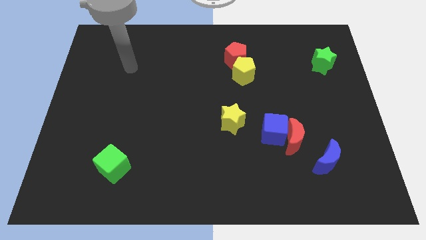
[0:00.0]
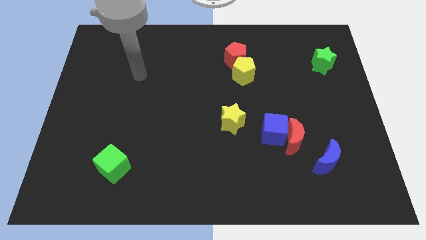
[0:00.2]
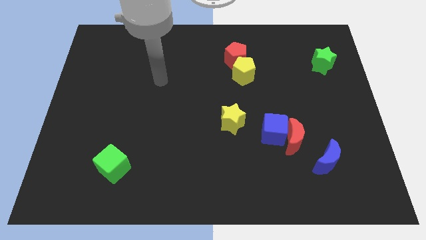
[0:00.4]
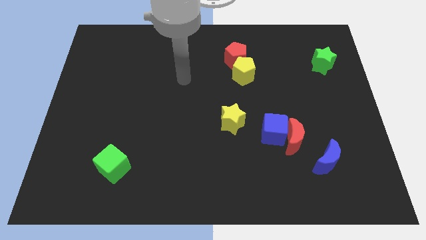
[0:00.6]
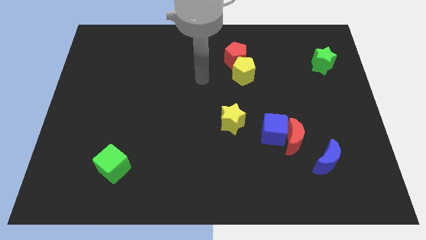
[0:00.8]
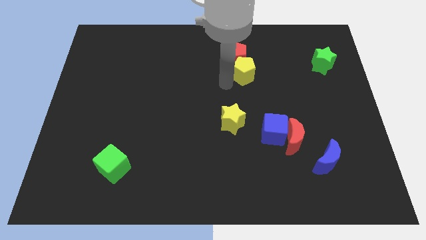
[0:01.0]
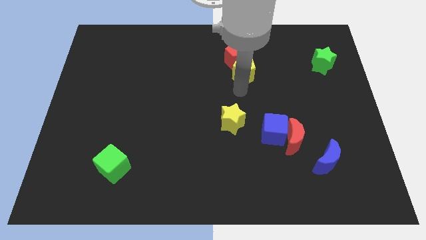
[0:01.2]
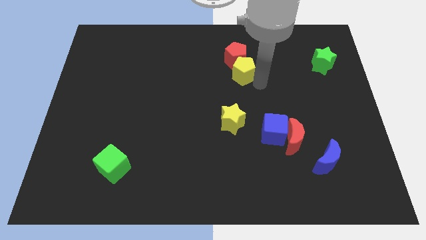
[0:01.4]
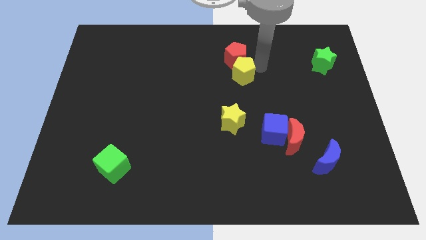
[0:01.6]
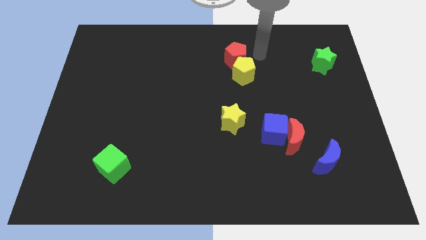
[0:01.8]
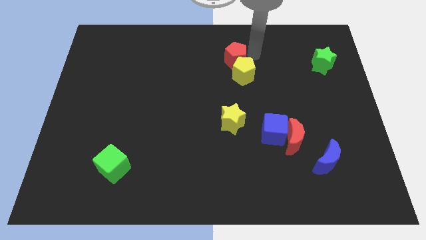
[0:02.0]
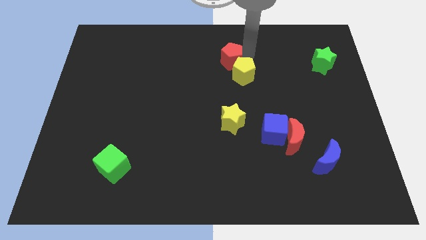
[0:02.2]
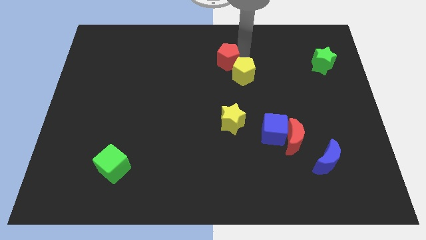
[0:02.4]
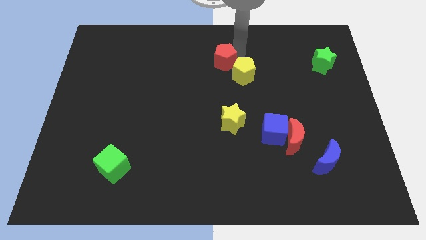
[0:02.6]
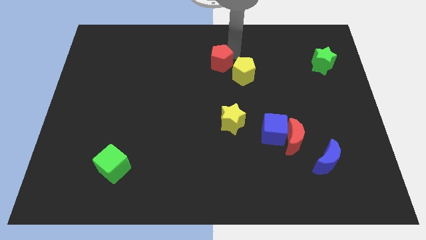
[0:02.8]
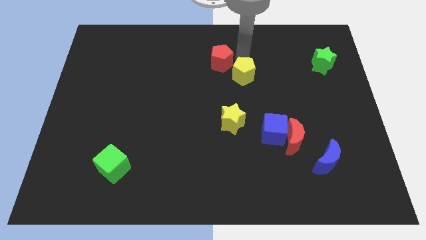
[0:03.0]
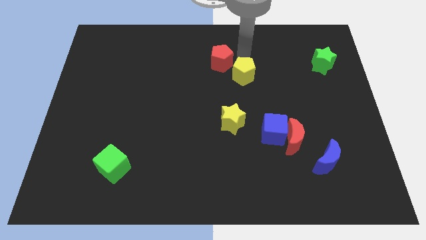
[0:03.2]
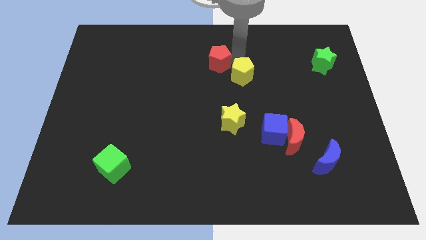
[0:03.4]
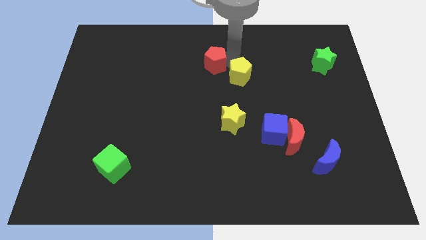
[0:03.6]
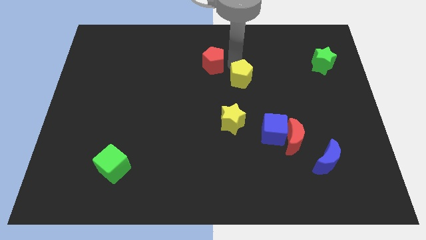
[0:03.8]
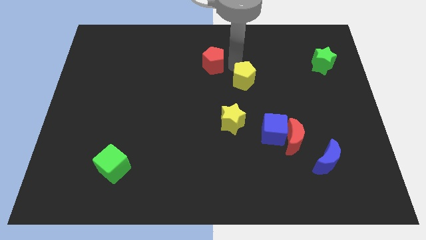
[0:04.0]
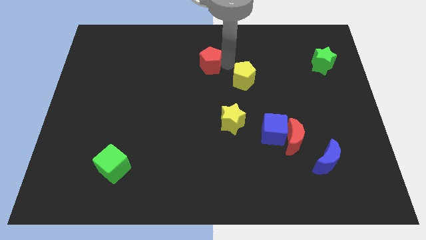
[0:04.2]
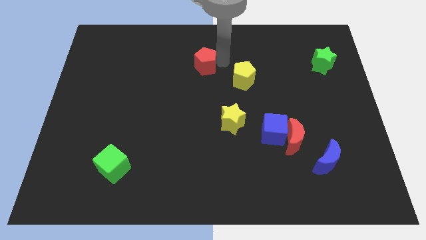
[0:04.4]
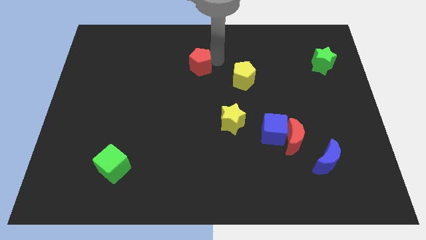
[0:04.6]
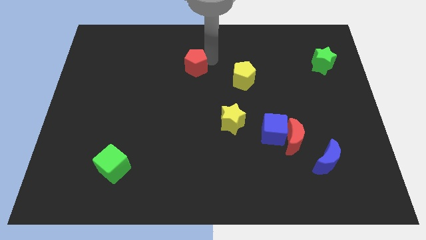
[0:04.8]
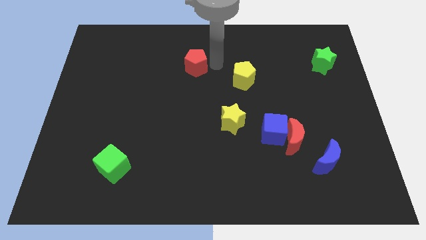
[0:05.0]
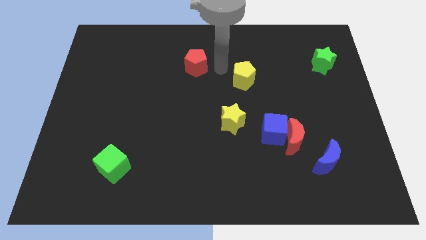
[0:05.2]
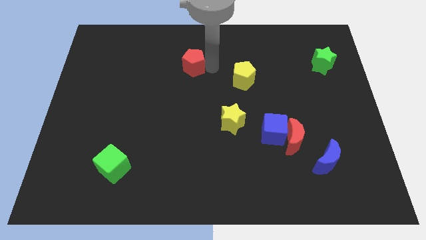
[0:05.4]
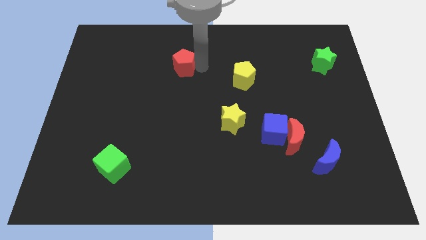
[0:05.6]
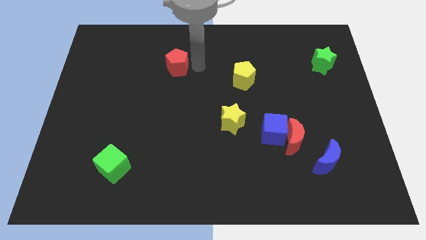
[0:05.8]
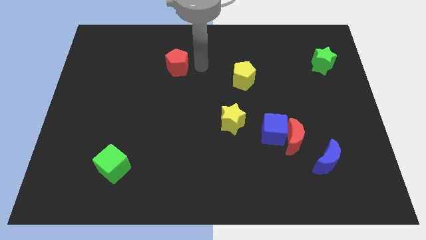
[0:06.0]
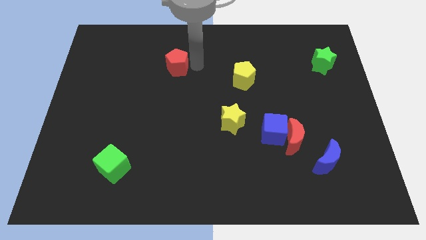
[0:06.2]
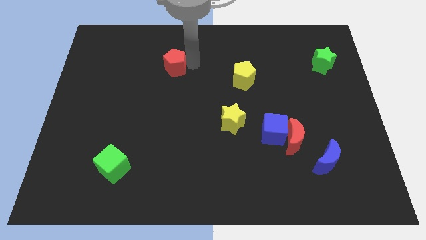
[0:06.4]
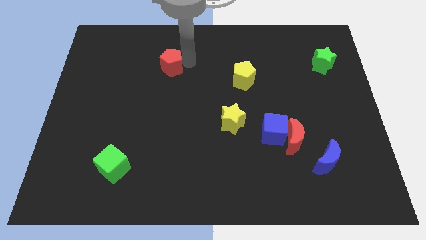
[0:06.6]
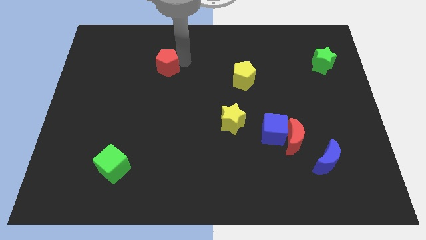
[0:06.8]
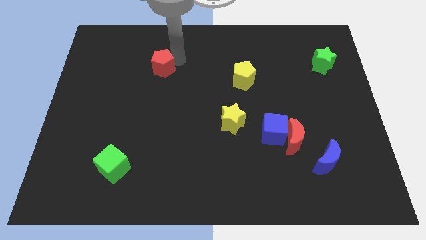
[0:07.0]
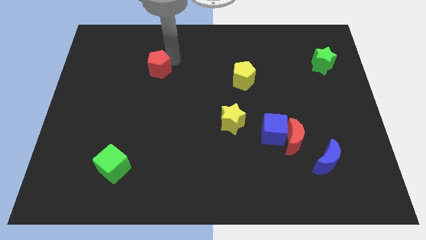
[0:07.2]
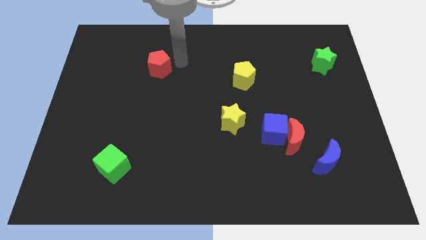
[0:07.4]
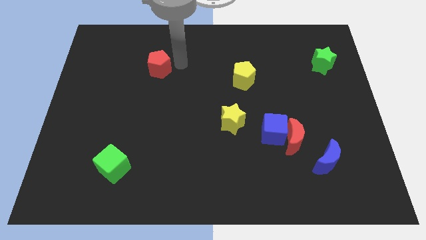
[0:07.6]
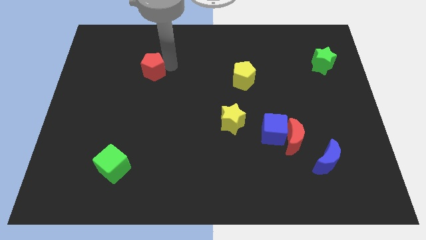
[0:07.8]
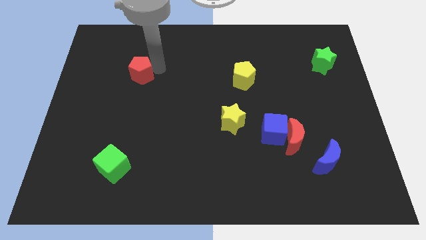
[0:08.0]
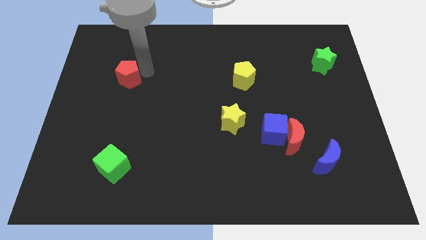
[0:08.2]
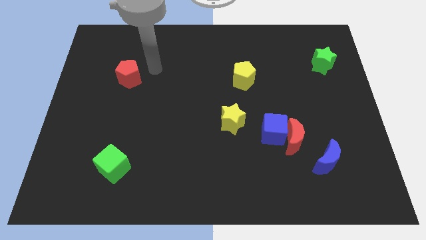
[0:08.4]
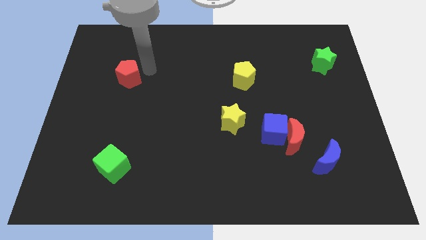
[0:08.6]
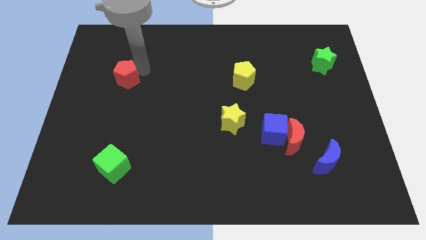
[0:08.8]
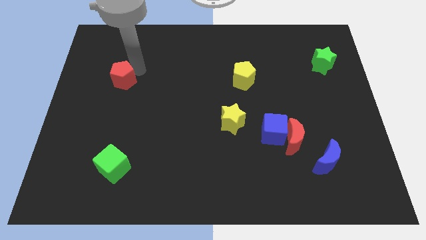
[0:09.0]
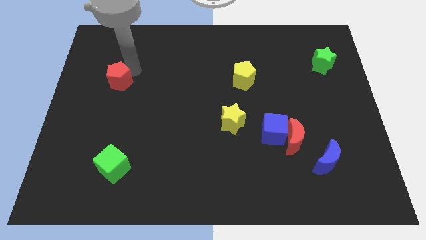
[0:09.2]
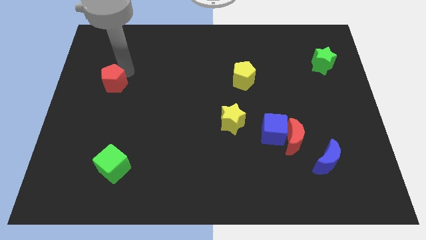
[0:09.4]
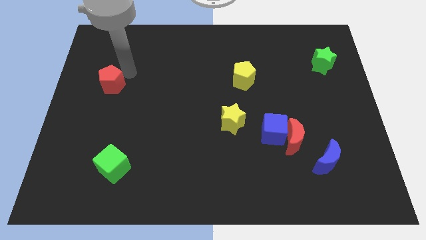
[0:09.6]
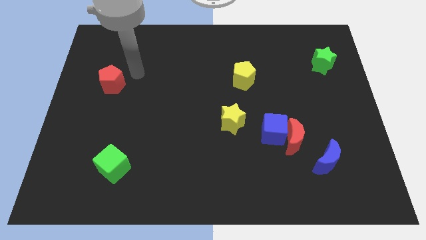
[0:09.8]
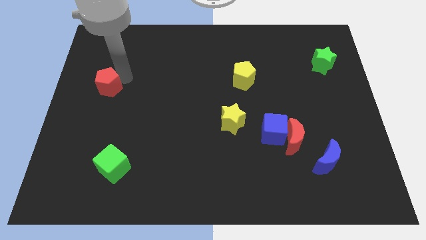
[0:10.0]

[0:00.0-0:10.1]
move the red pentagon to the center left

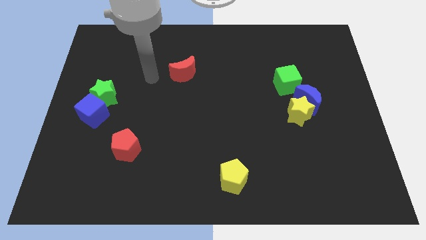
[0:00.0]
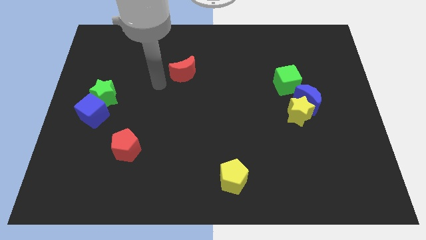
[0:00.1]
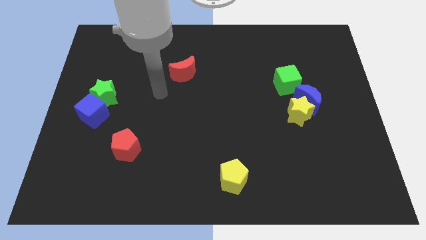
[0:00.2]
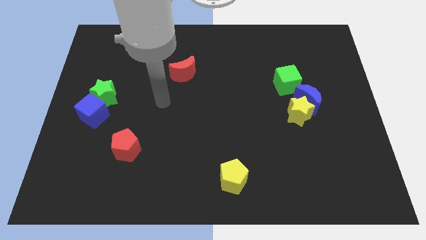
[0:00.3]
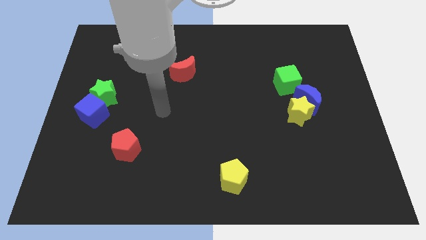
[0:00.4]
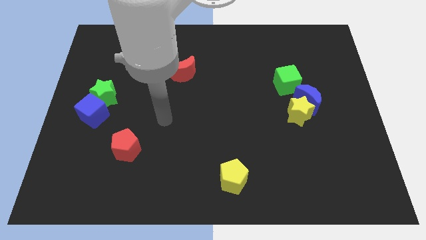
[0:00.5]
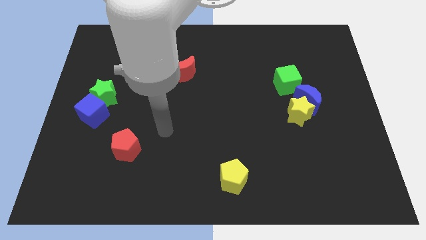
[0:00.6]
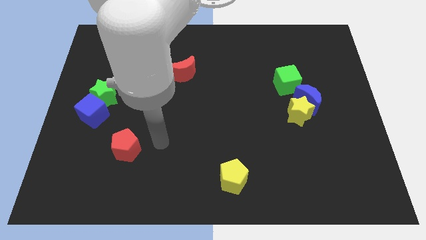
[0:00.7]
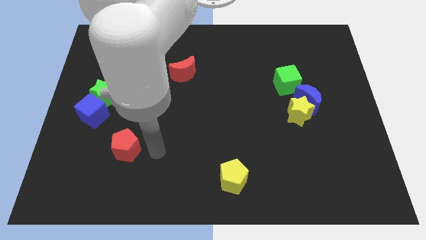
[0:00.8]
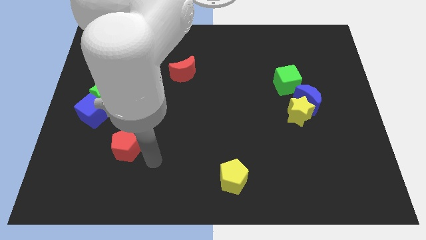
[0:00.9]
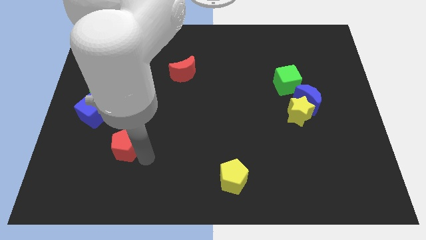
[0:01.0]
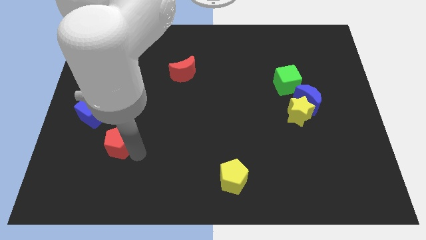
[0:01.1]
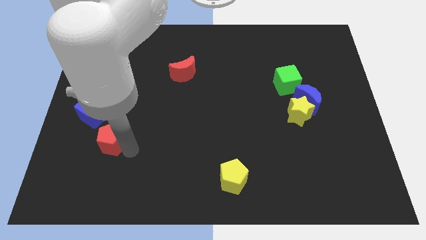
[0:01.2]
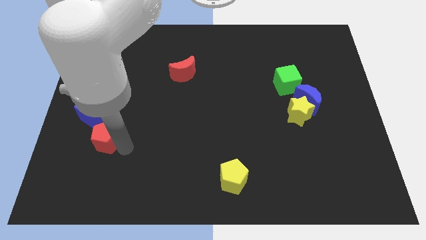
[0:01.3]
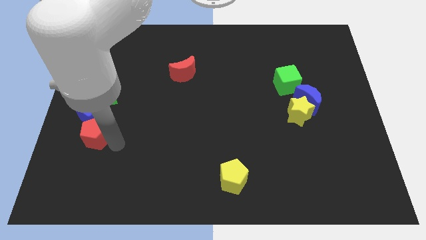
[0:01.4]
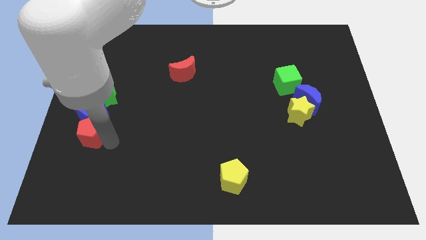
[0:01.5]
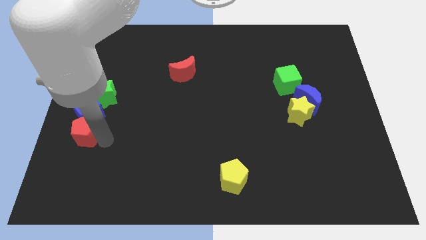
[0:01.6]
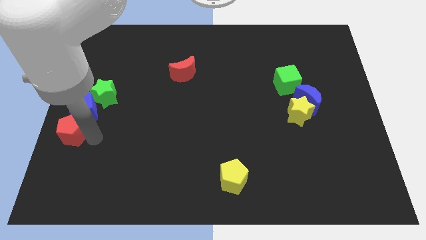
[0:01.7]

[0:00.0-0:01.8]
move the red pentagon to the left side of the board
